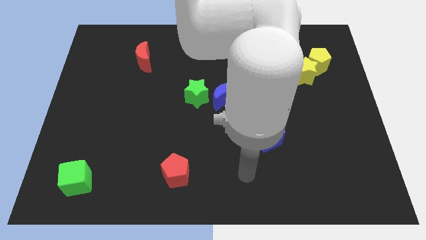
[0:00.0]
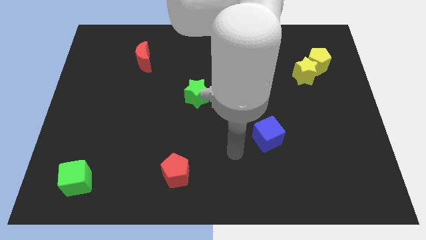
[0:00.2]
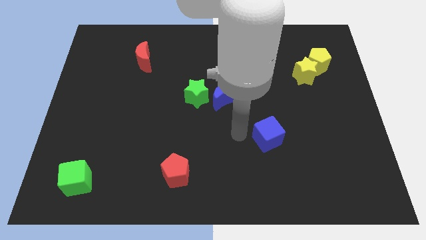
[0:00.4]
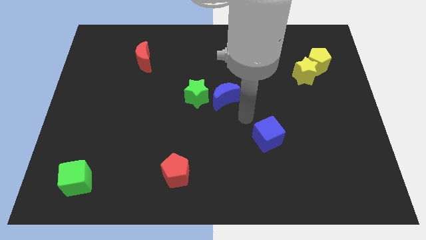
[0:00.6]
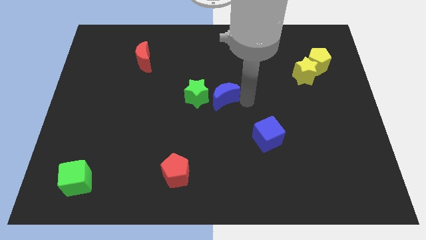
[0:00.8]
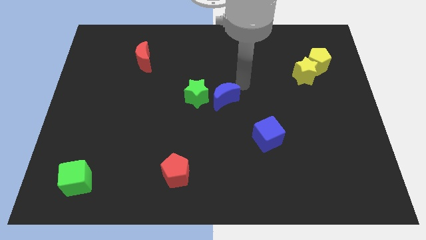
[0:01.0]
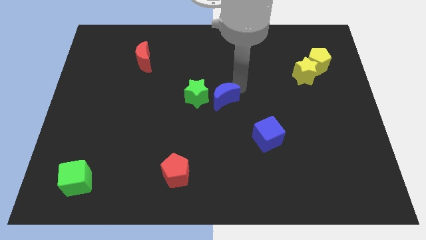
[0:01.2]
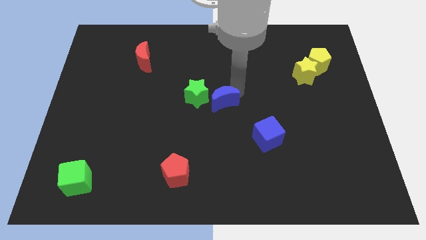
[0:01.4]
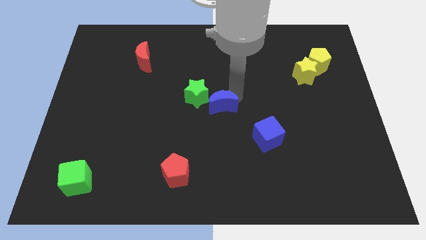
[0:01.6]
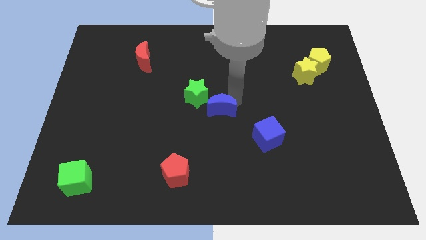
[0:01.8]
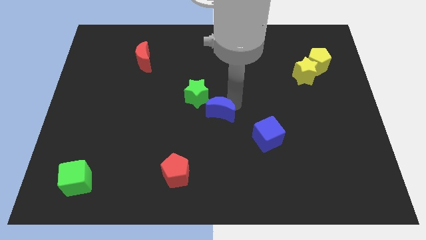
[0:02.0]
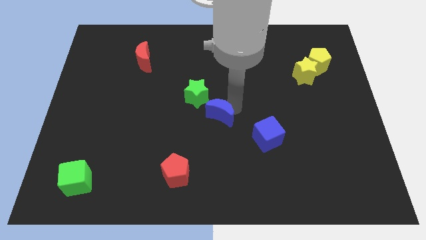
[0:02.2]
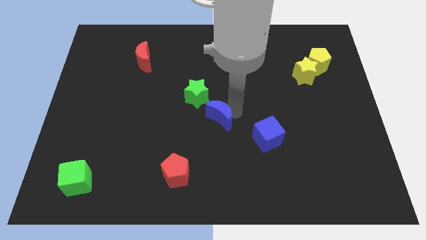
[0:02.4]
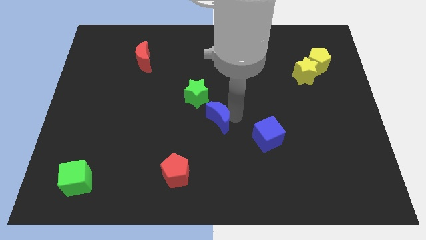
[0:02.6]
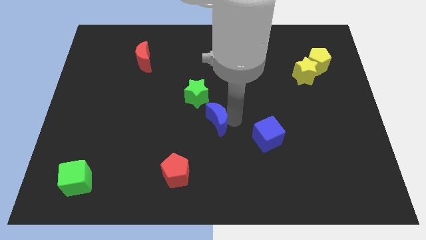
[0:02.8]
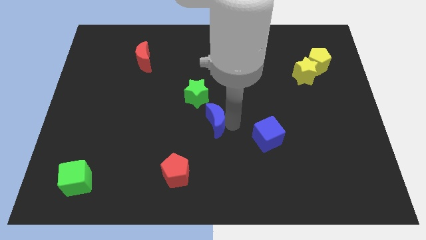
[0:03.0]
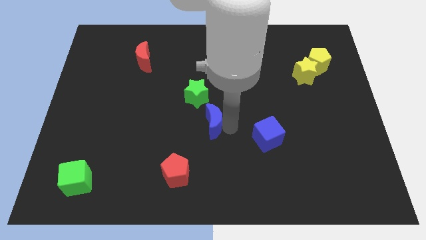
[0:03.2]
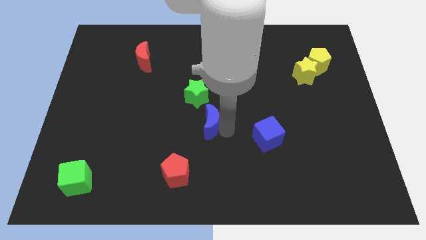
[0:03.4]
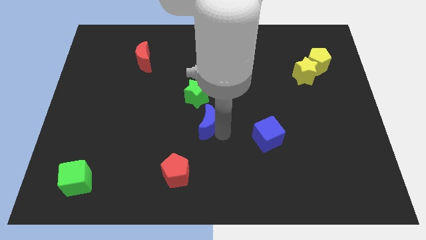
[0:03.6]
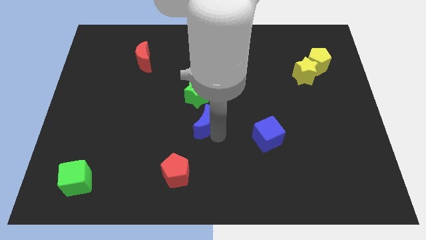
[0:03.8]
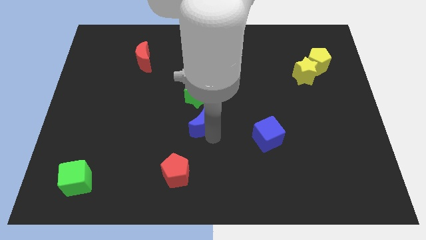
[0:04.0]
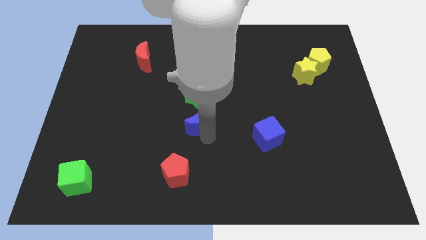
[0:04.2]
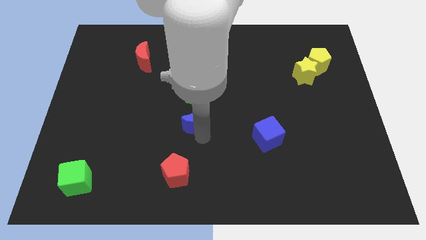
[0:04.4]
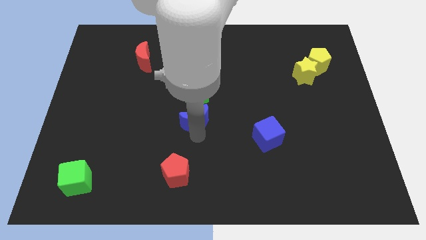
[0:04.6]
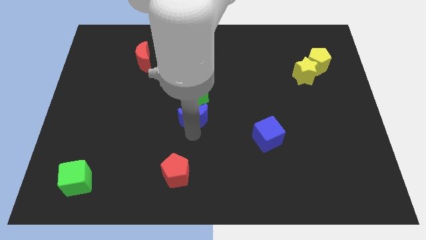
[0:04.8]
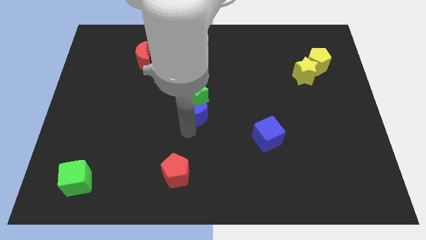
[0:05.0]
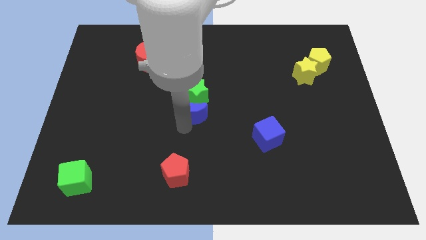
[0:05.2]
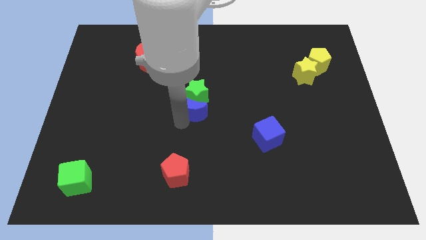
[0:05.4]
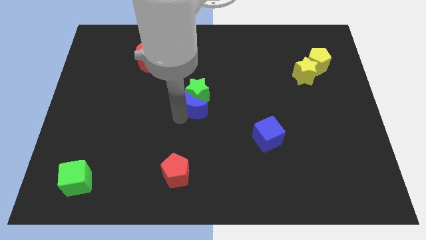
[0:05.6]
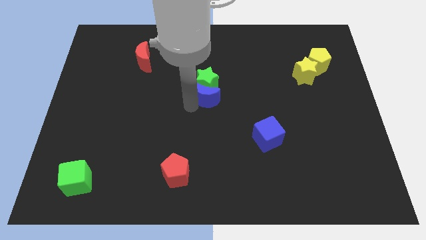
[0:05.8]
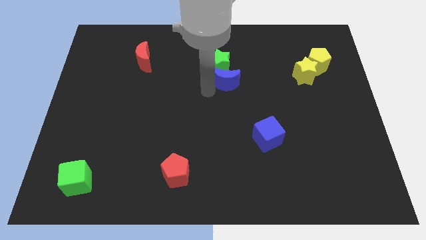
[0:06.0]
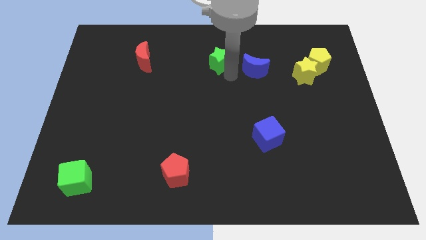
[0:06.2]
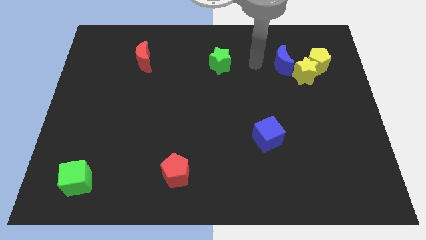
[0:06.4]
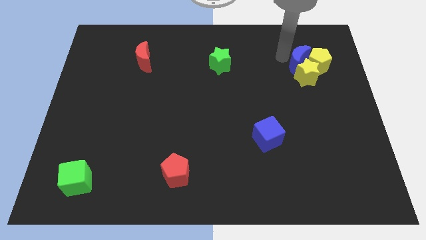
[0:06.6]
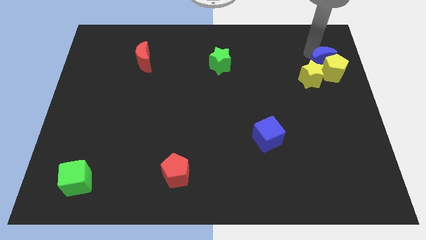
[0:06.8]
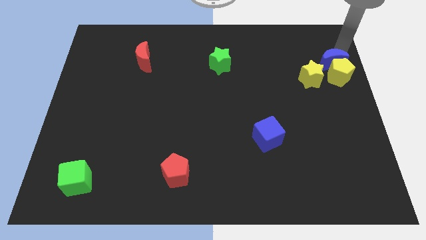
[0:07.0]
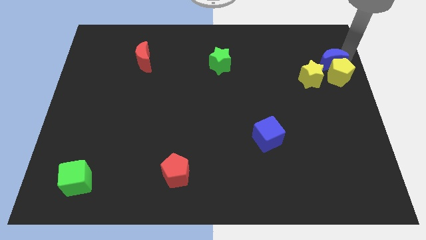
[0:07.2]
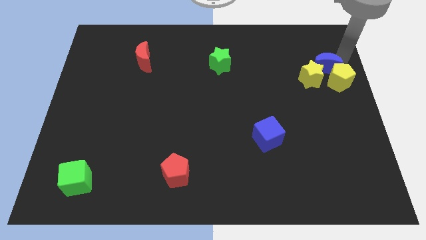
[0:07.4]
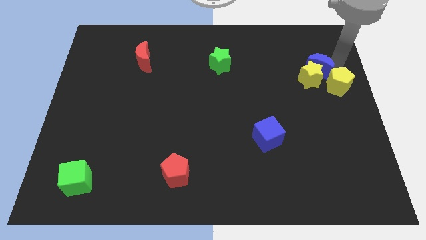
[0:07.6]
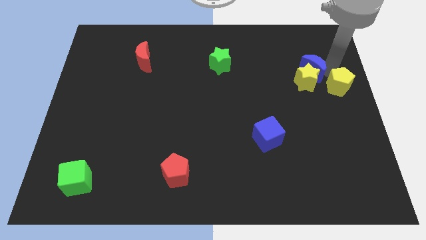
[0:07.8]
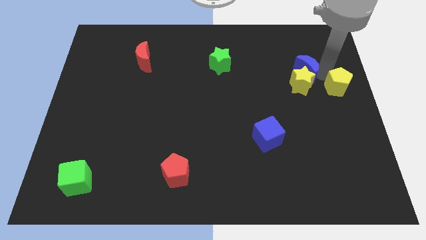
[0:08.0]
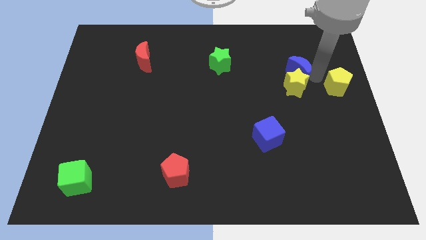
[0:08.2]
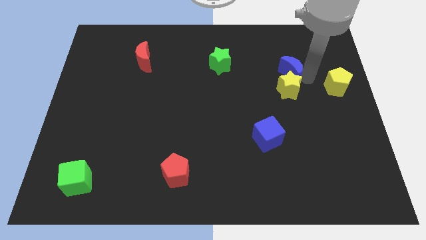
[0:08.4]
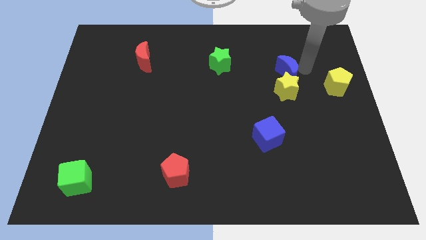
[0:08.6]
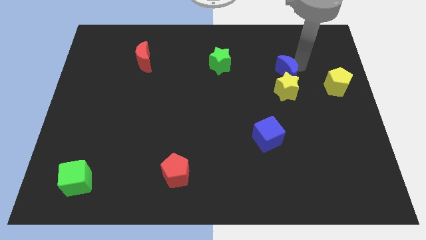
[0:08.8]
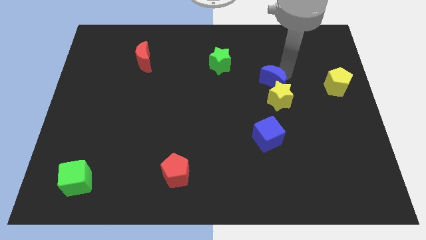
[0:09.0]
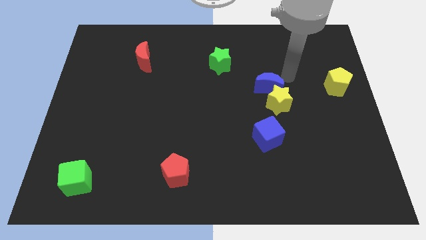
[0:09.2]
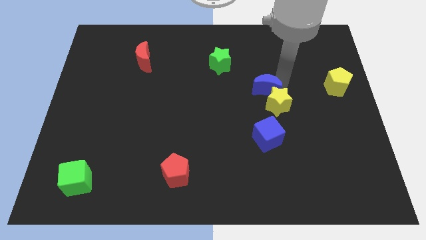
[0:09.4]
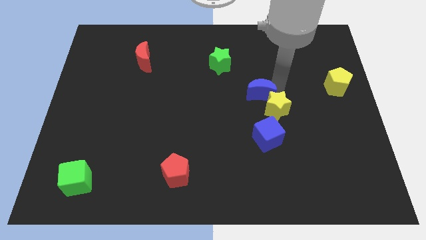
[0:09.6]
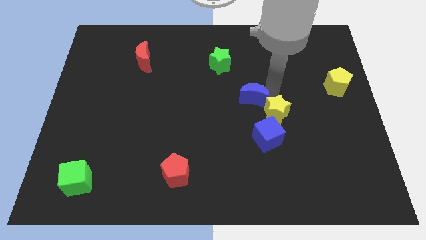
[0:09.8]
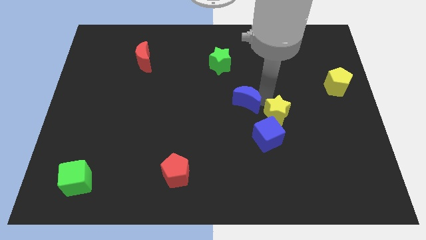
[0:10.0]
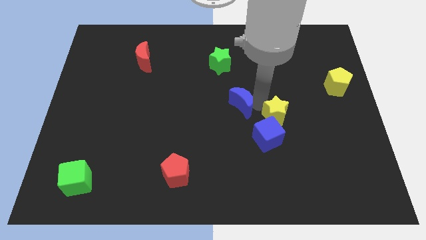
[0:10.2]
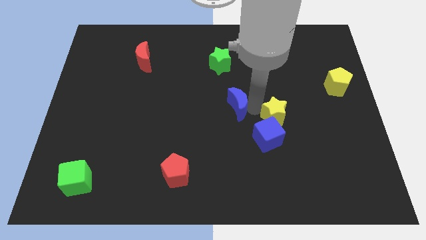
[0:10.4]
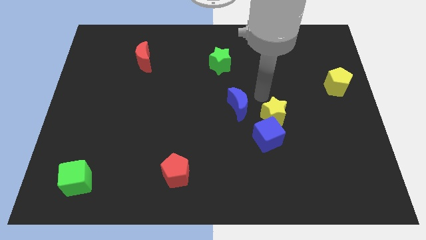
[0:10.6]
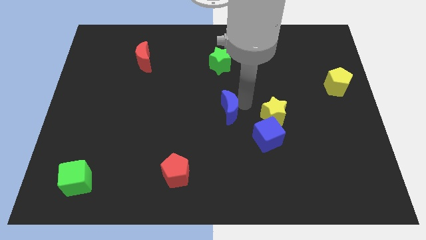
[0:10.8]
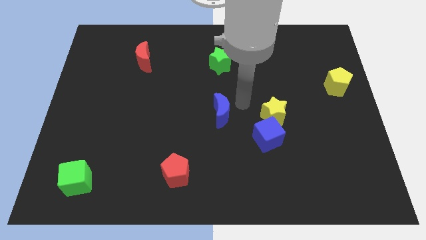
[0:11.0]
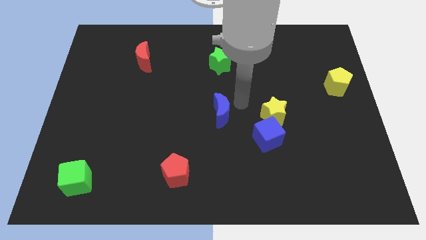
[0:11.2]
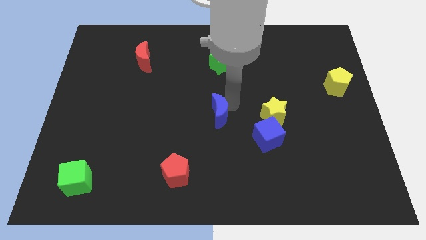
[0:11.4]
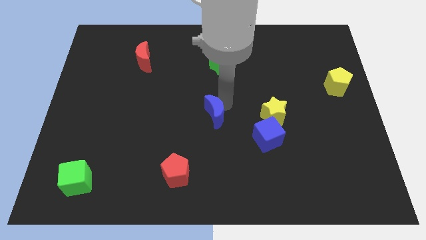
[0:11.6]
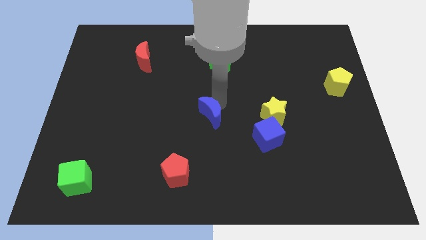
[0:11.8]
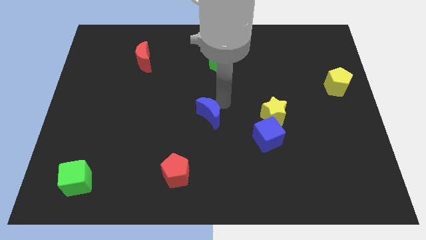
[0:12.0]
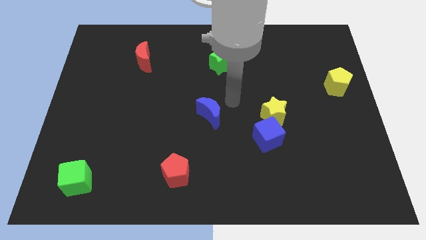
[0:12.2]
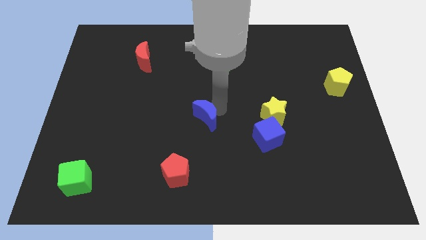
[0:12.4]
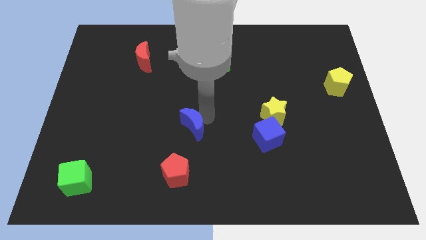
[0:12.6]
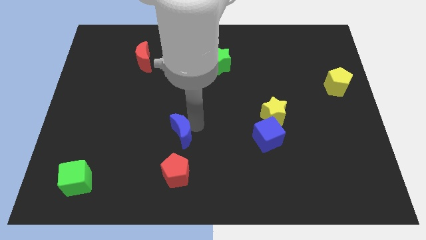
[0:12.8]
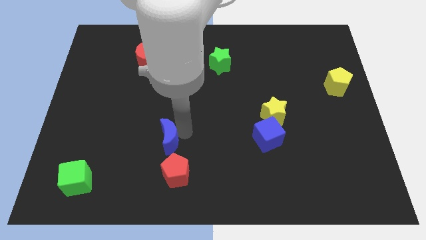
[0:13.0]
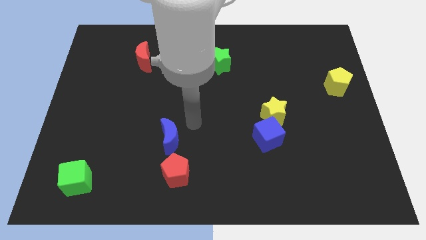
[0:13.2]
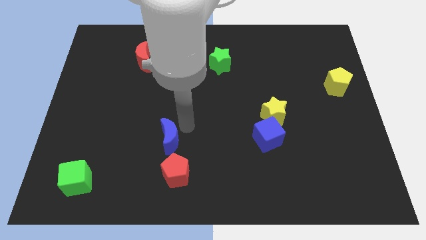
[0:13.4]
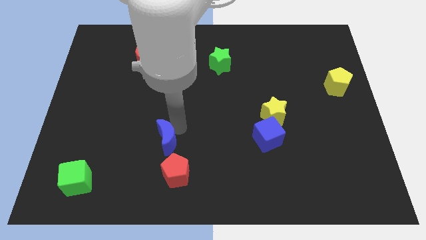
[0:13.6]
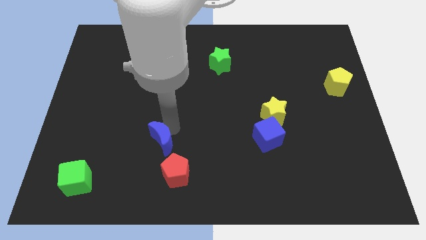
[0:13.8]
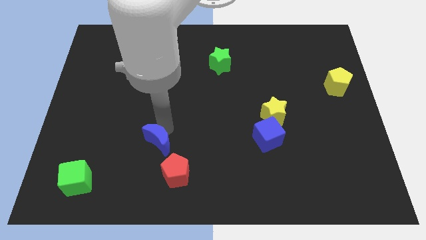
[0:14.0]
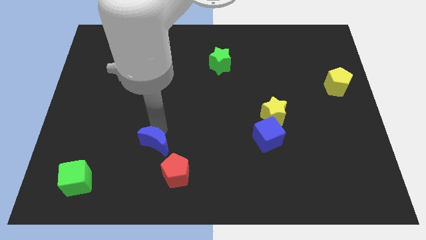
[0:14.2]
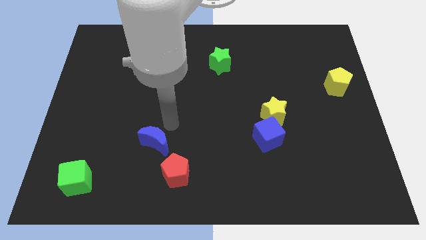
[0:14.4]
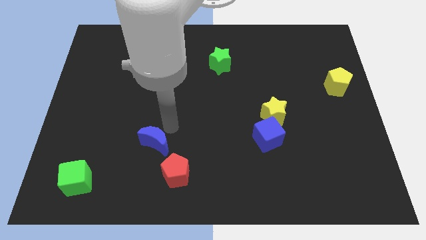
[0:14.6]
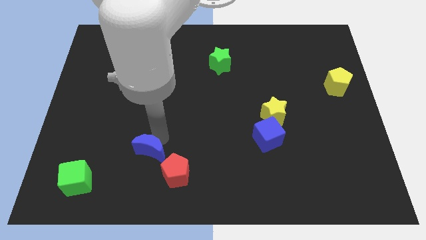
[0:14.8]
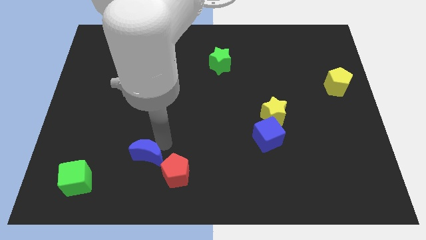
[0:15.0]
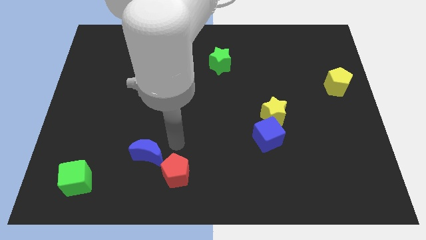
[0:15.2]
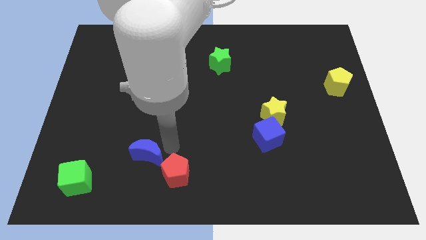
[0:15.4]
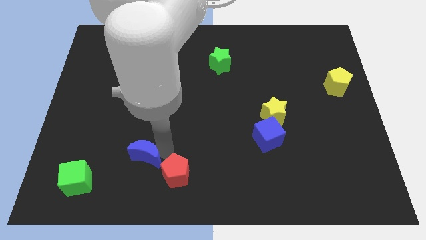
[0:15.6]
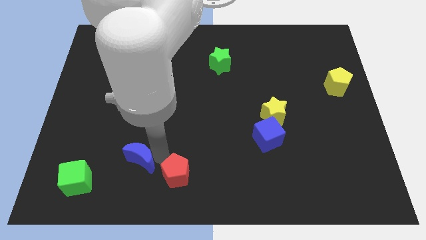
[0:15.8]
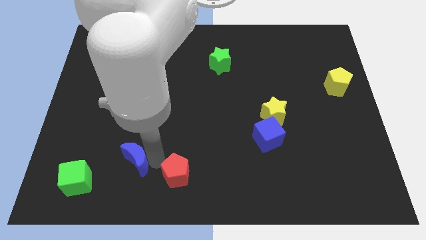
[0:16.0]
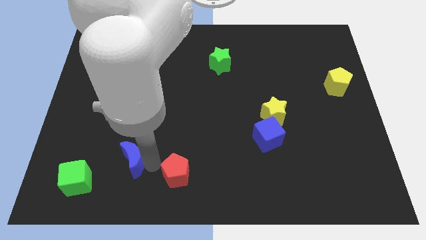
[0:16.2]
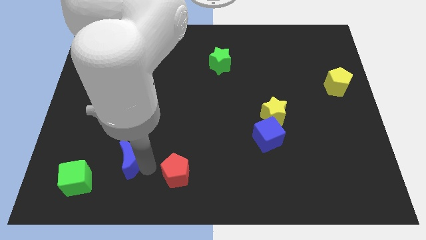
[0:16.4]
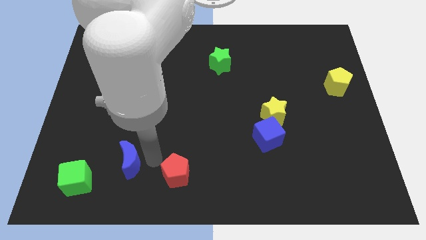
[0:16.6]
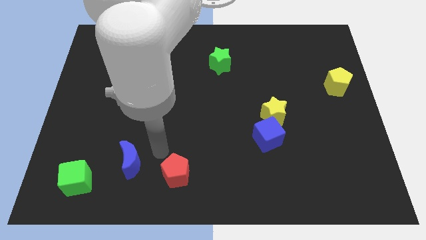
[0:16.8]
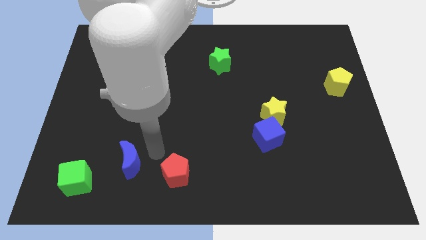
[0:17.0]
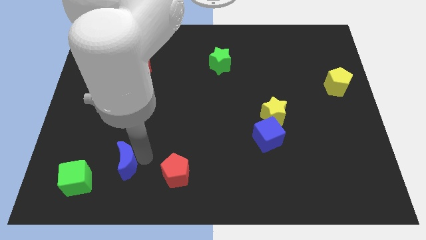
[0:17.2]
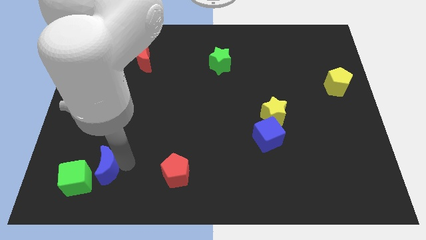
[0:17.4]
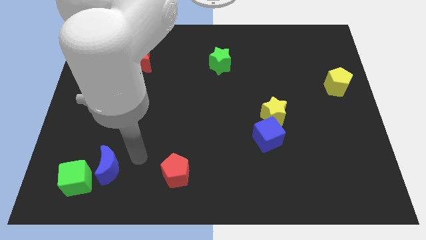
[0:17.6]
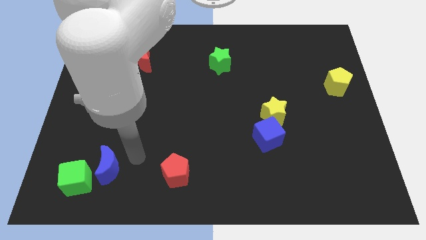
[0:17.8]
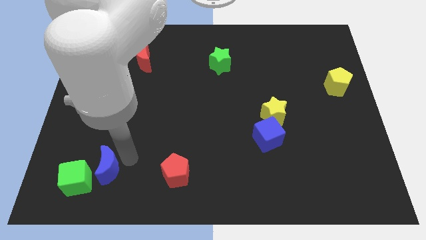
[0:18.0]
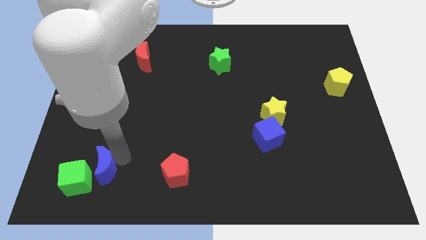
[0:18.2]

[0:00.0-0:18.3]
slide the blue moon to the green cube
